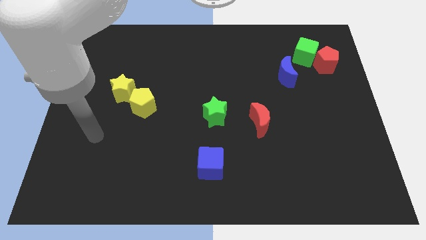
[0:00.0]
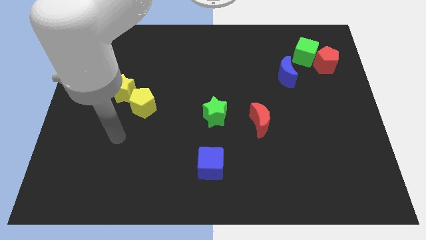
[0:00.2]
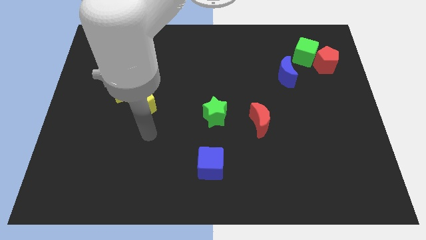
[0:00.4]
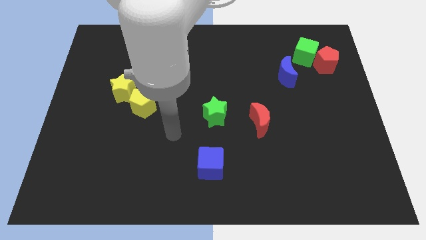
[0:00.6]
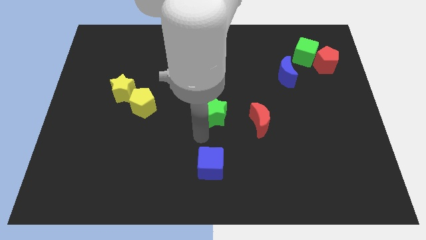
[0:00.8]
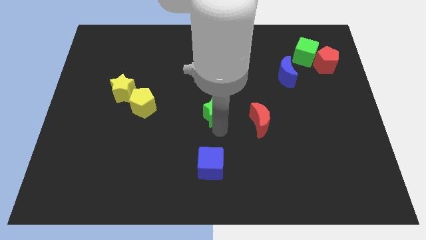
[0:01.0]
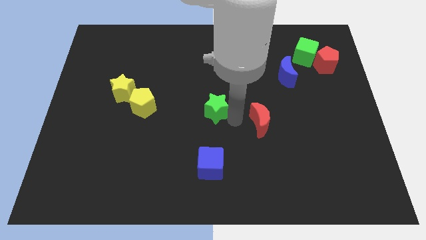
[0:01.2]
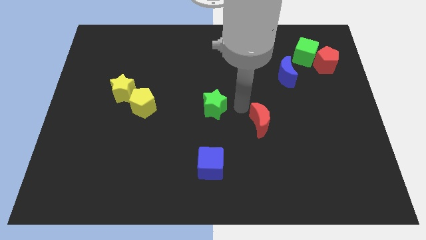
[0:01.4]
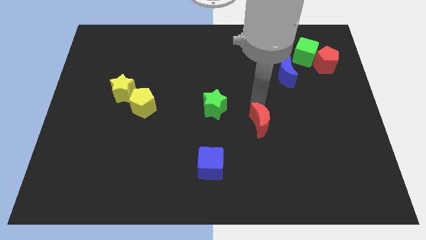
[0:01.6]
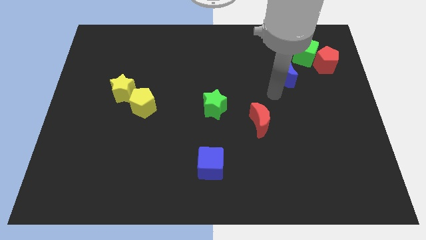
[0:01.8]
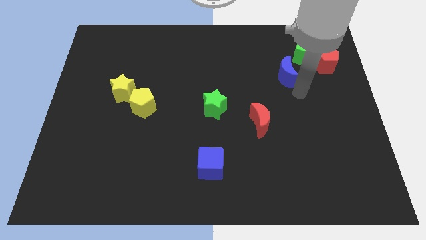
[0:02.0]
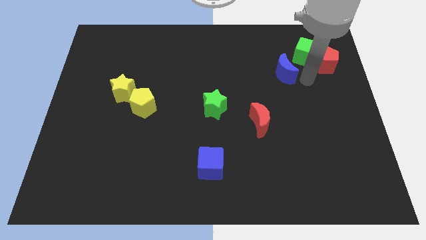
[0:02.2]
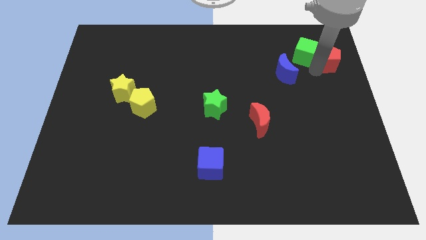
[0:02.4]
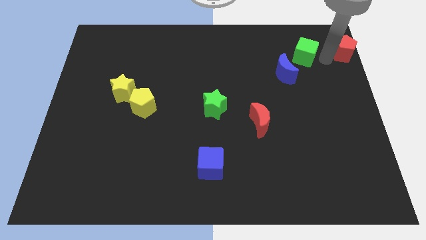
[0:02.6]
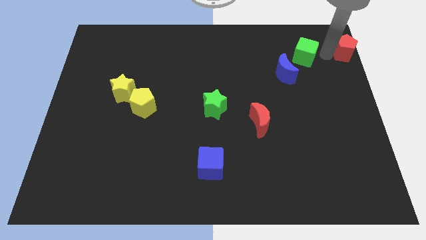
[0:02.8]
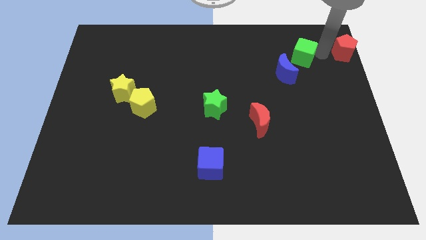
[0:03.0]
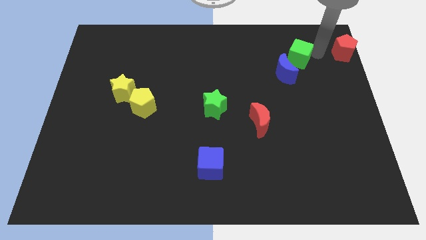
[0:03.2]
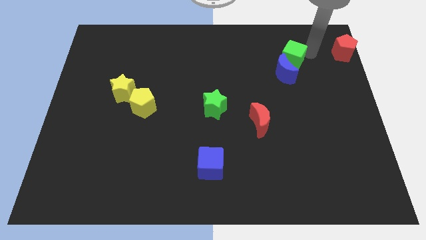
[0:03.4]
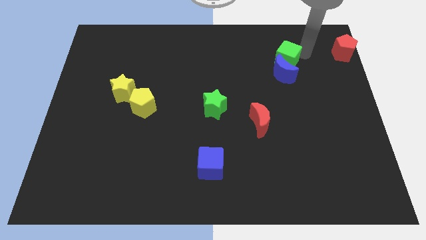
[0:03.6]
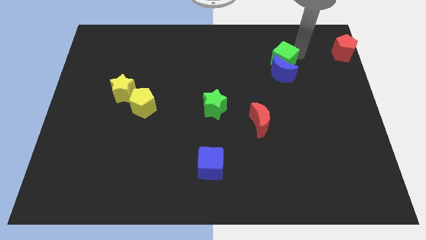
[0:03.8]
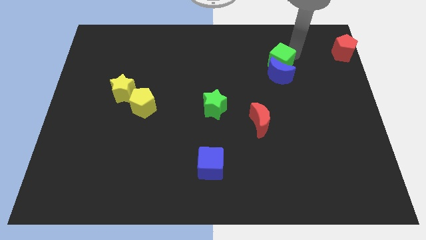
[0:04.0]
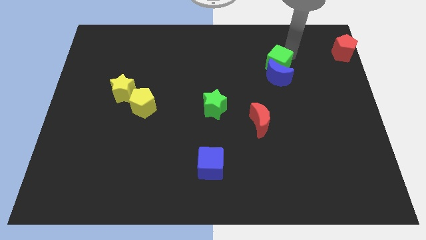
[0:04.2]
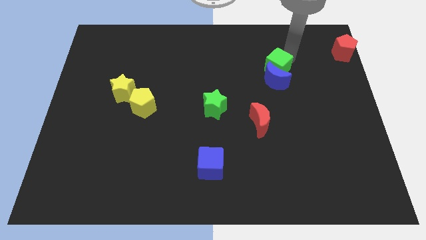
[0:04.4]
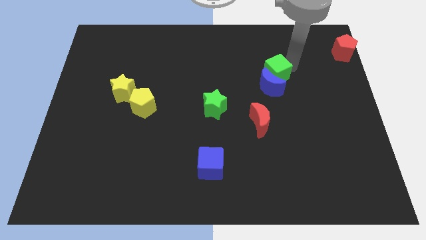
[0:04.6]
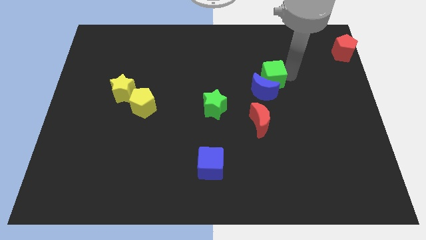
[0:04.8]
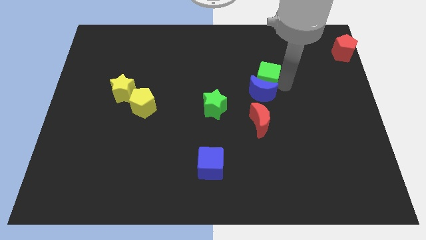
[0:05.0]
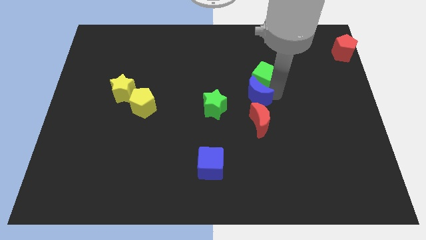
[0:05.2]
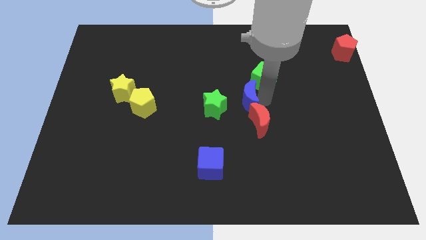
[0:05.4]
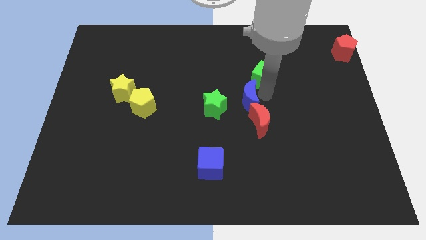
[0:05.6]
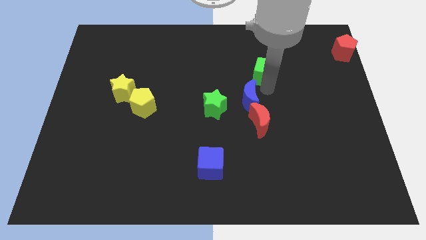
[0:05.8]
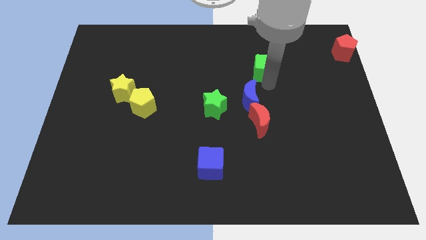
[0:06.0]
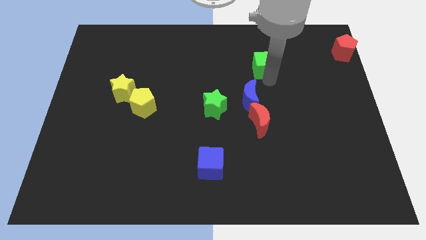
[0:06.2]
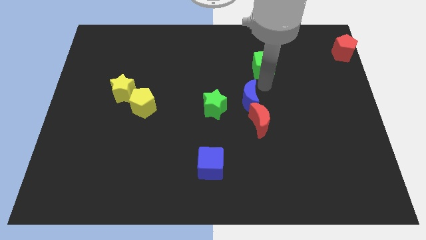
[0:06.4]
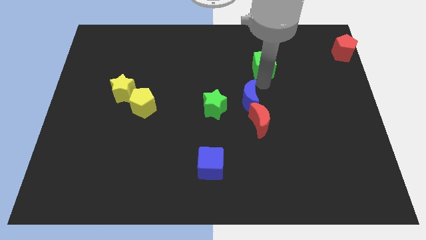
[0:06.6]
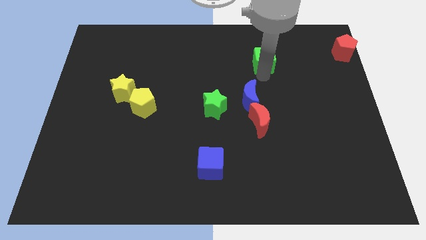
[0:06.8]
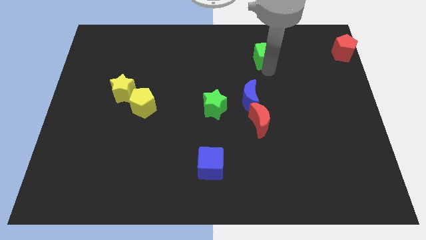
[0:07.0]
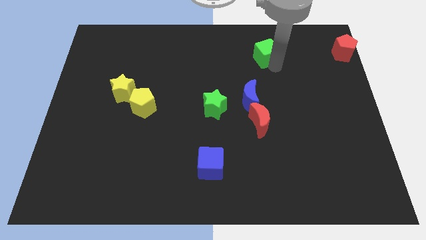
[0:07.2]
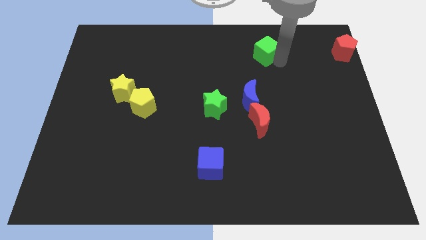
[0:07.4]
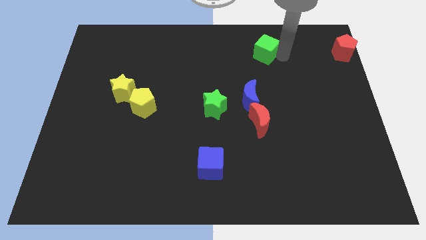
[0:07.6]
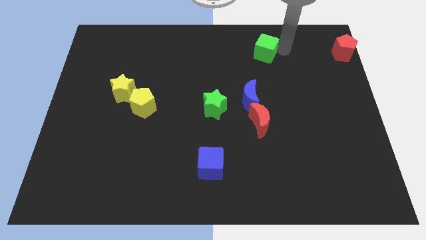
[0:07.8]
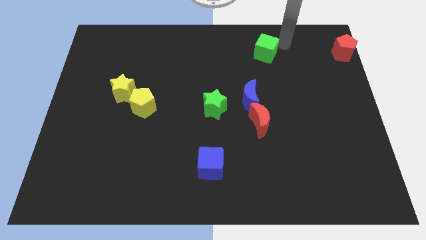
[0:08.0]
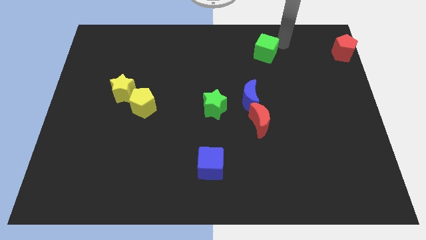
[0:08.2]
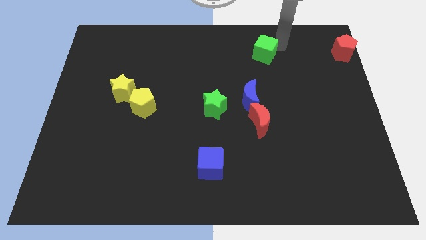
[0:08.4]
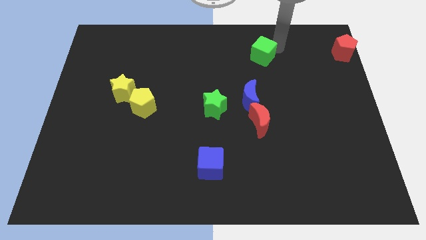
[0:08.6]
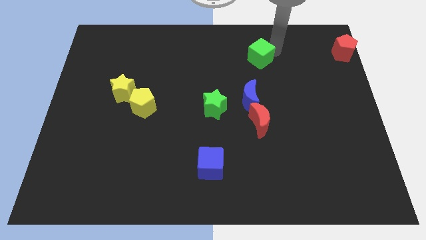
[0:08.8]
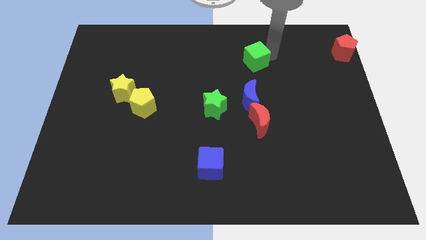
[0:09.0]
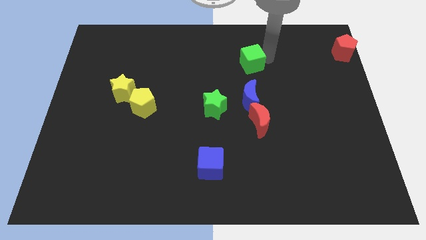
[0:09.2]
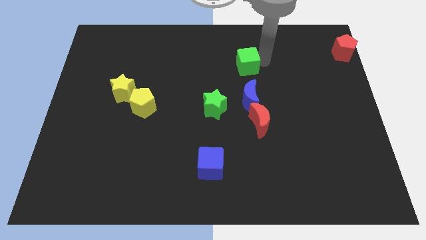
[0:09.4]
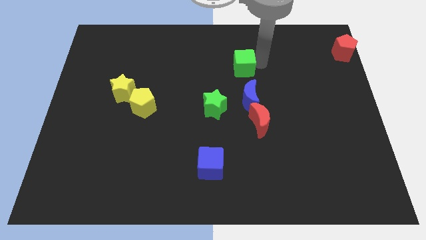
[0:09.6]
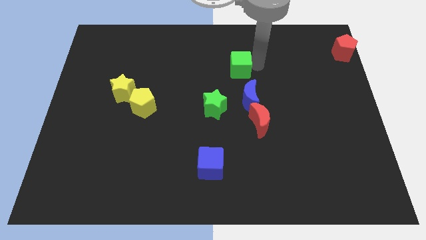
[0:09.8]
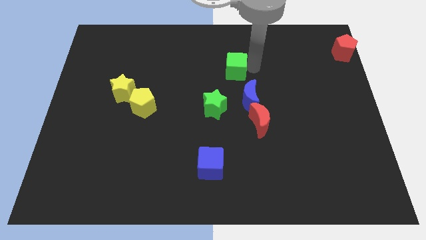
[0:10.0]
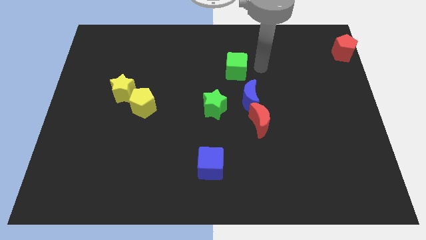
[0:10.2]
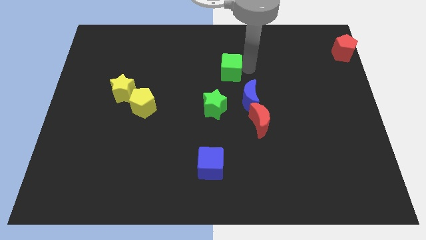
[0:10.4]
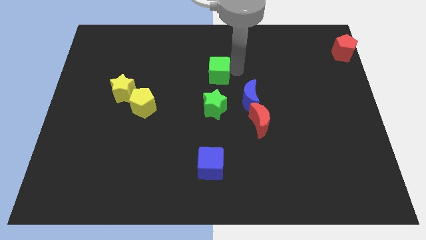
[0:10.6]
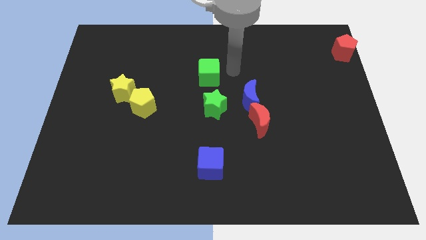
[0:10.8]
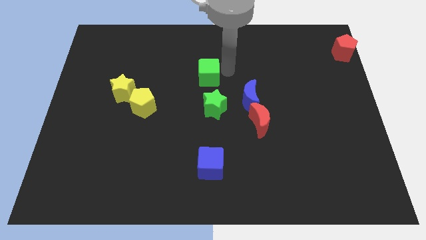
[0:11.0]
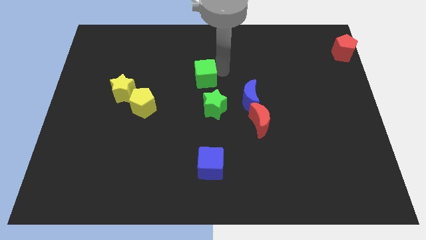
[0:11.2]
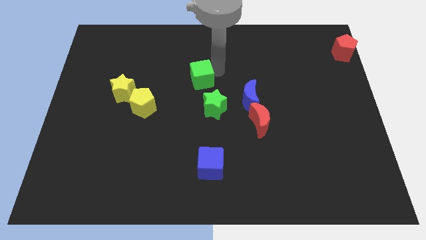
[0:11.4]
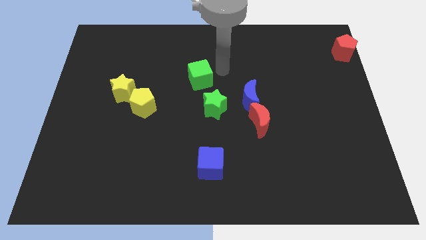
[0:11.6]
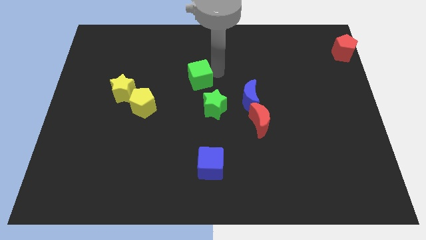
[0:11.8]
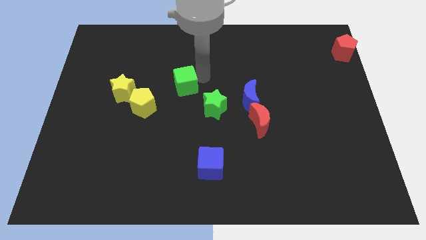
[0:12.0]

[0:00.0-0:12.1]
put the green cube to the top right side of the yellow pentagon
